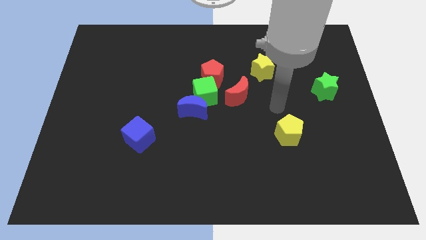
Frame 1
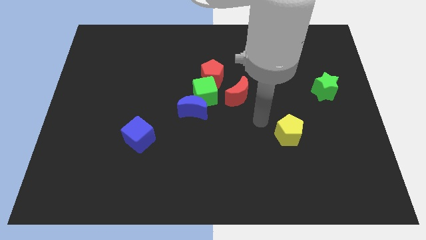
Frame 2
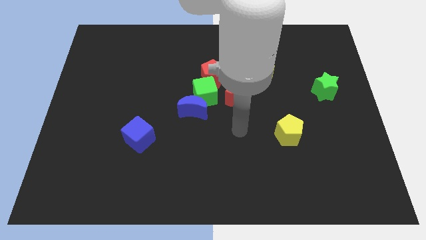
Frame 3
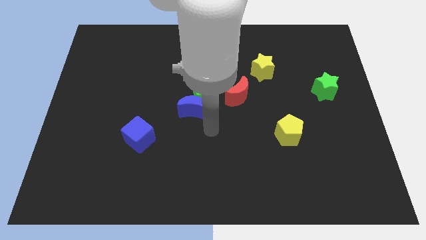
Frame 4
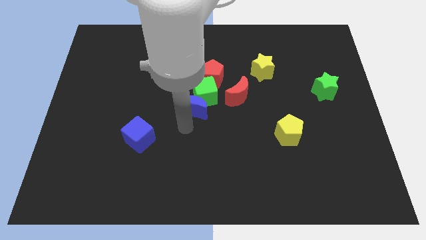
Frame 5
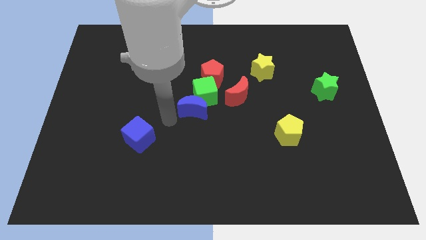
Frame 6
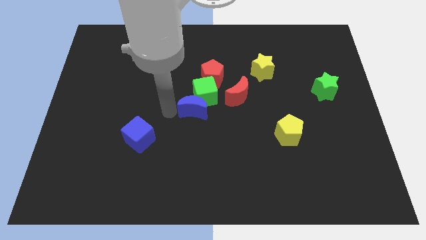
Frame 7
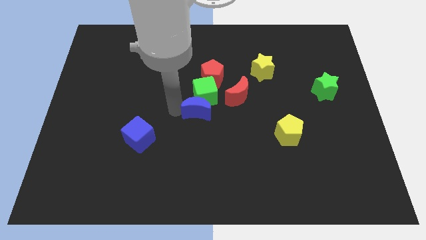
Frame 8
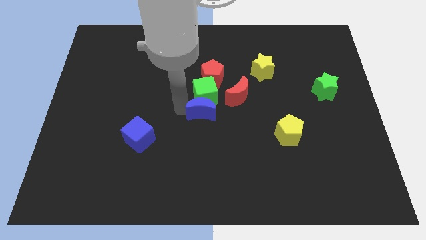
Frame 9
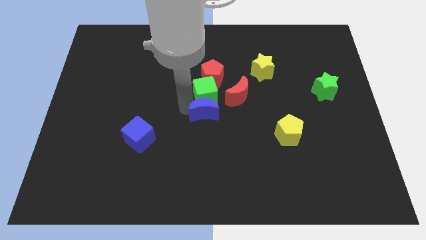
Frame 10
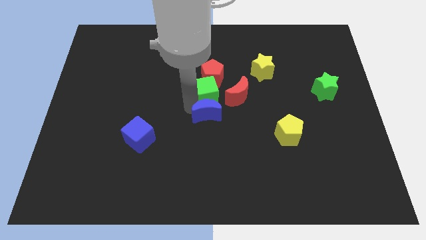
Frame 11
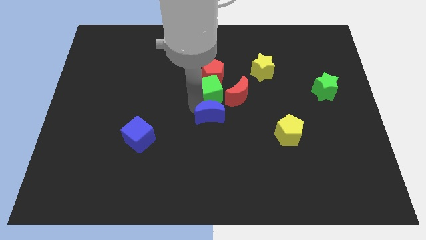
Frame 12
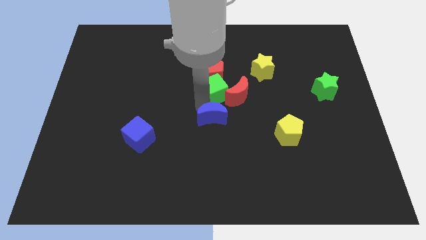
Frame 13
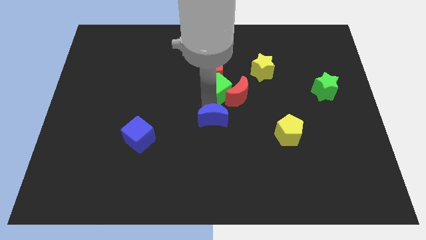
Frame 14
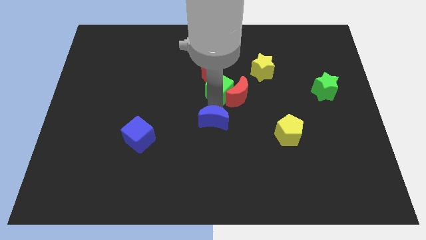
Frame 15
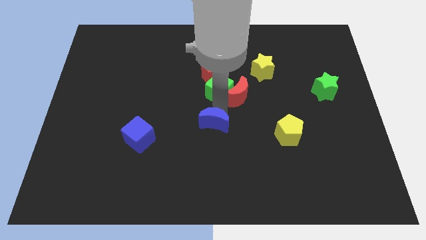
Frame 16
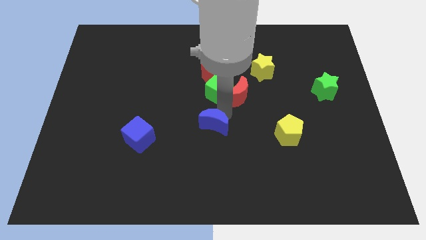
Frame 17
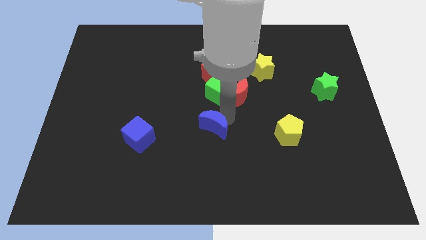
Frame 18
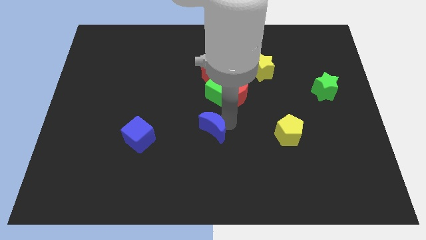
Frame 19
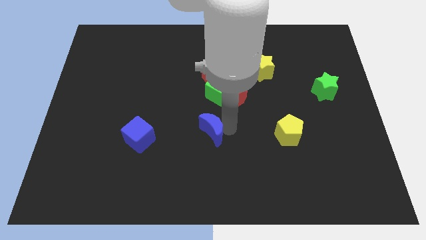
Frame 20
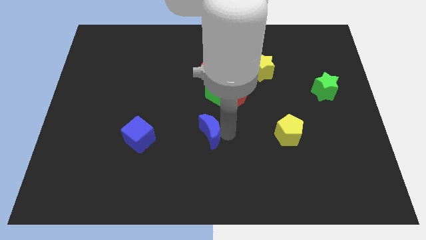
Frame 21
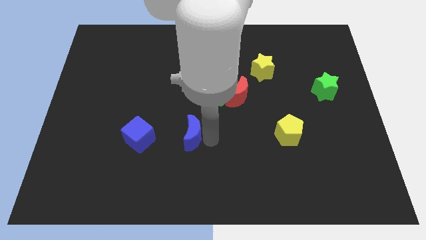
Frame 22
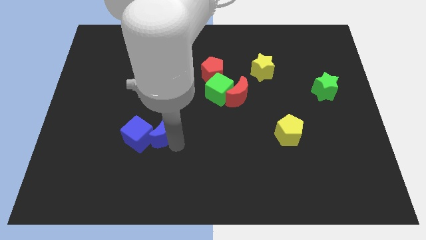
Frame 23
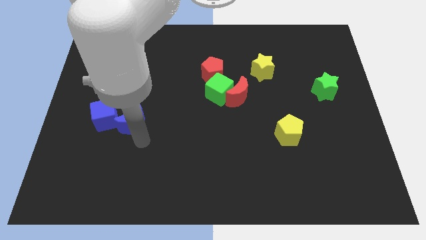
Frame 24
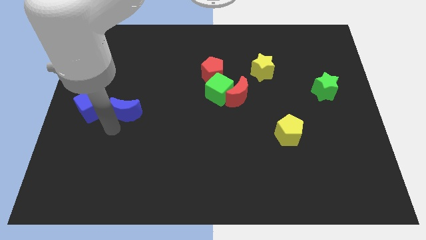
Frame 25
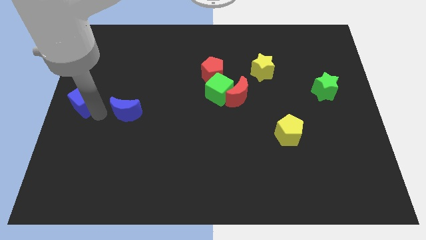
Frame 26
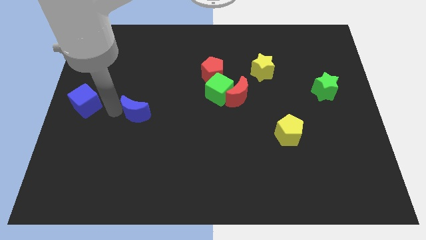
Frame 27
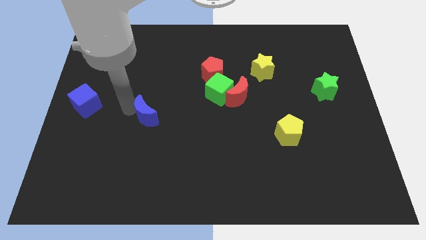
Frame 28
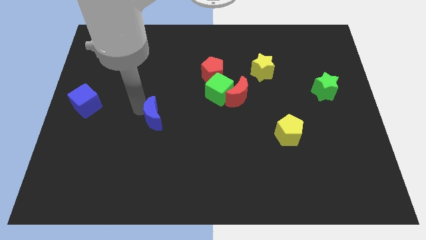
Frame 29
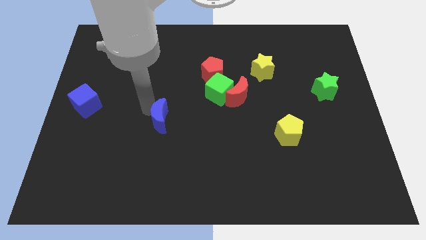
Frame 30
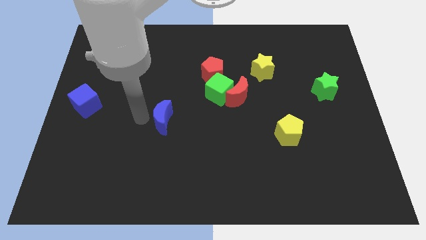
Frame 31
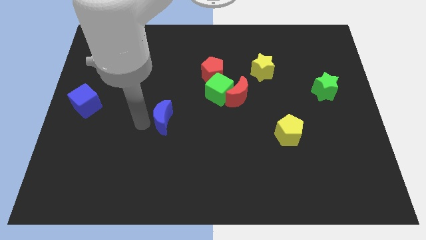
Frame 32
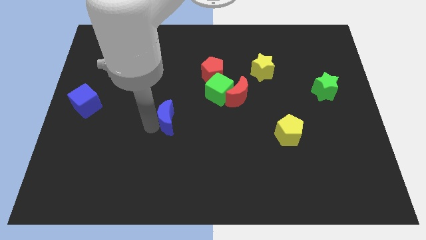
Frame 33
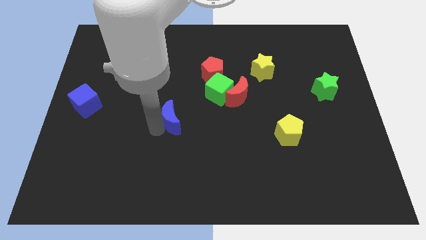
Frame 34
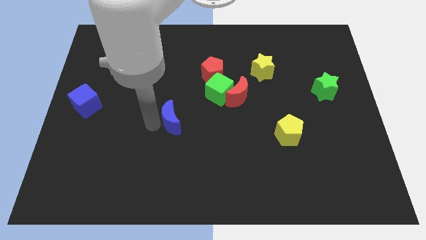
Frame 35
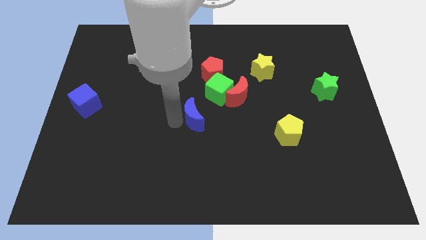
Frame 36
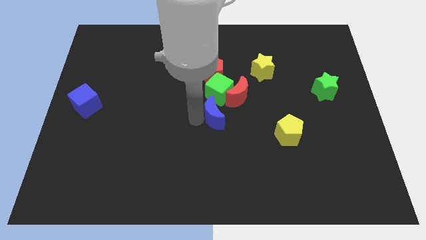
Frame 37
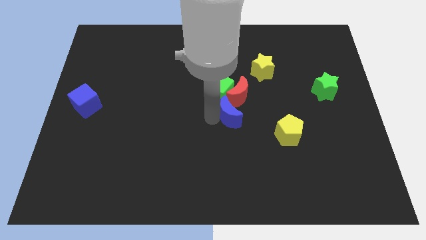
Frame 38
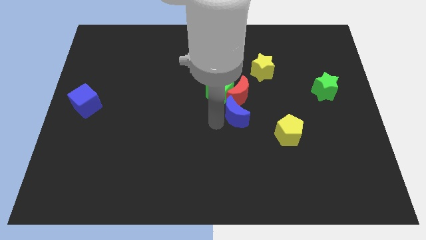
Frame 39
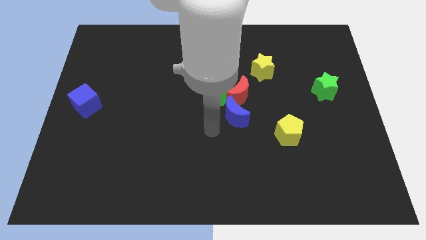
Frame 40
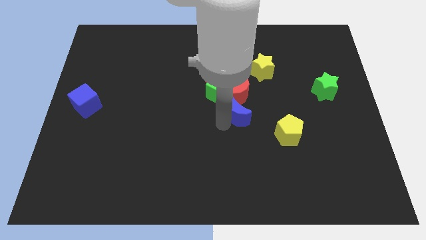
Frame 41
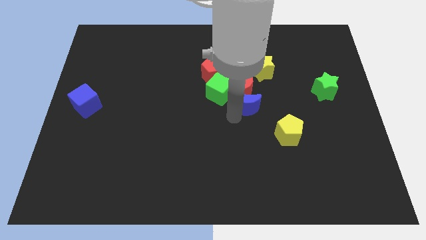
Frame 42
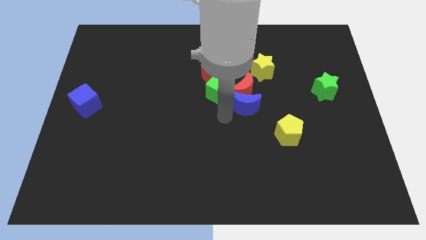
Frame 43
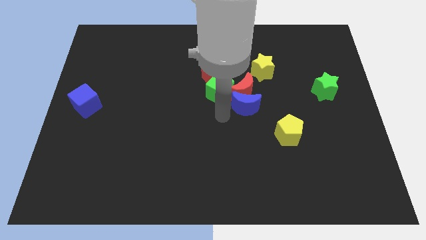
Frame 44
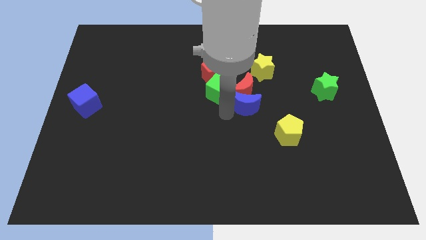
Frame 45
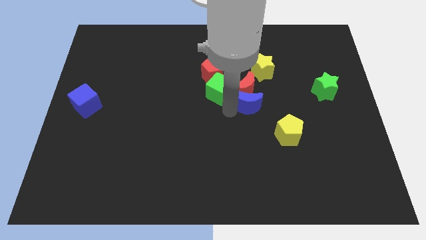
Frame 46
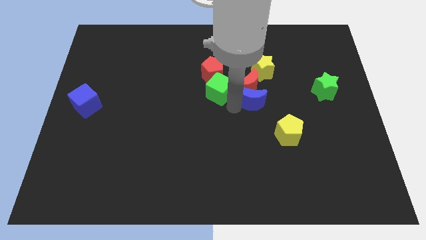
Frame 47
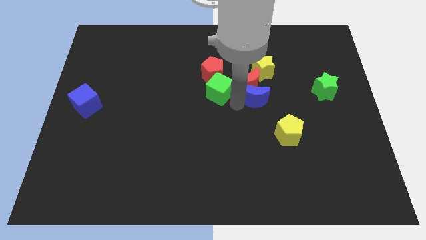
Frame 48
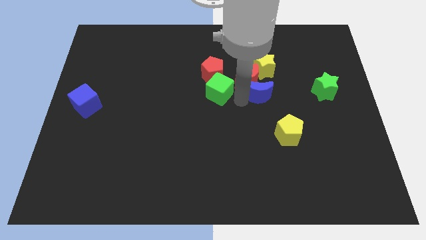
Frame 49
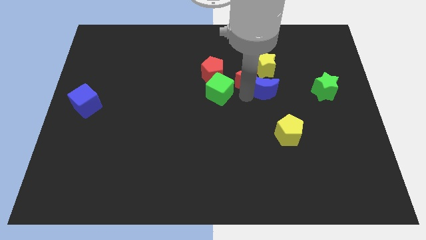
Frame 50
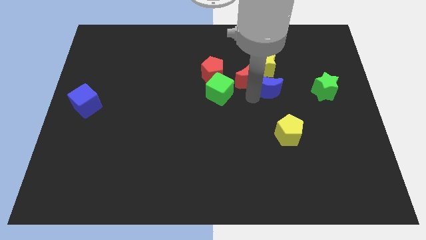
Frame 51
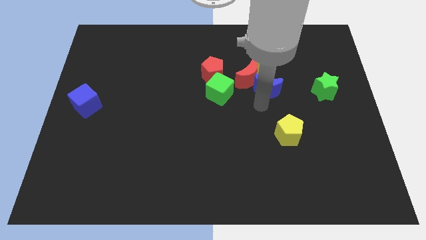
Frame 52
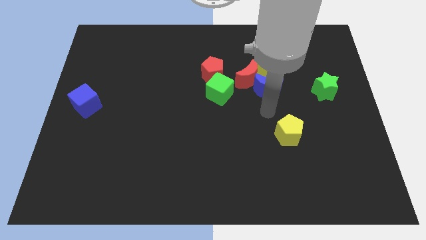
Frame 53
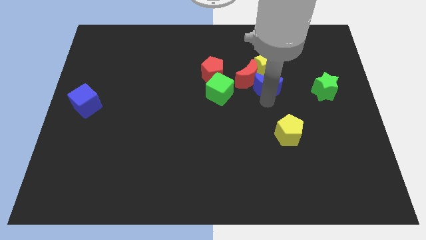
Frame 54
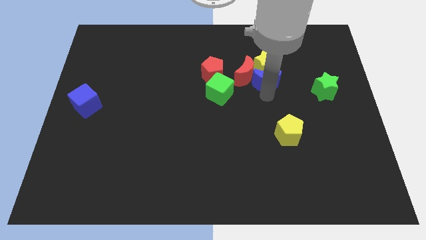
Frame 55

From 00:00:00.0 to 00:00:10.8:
move the blue moon close to the yellow star

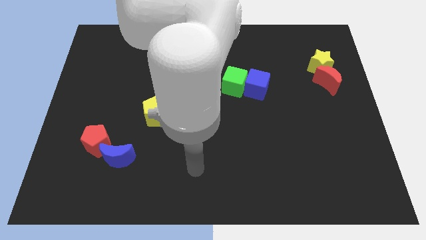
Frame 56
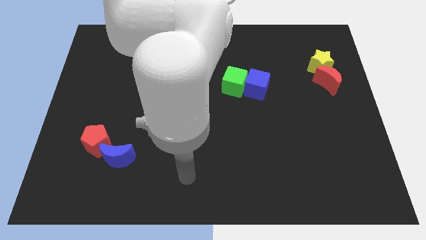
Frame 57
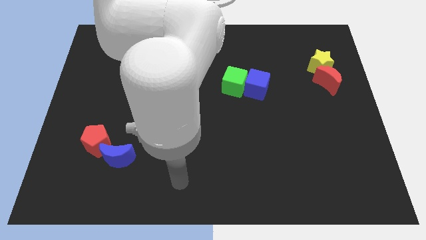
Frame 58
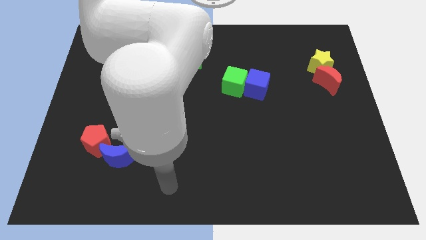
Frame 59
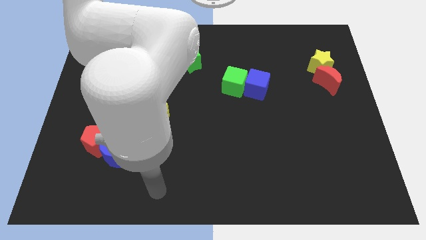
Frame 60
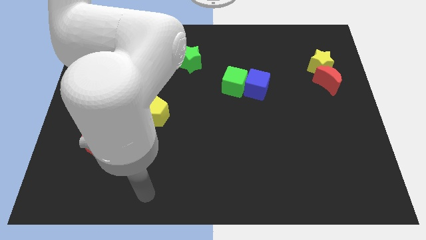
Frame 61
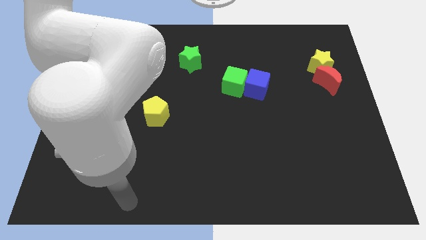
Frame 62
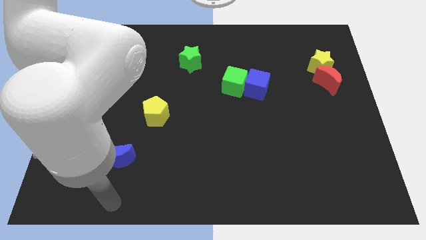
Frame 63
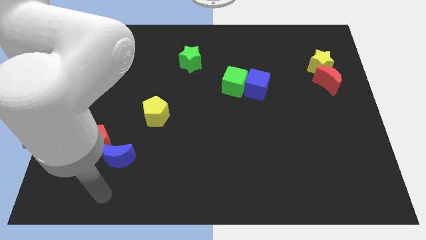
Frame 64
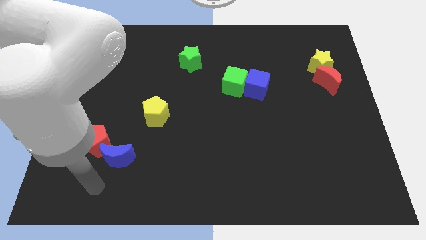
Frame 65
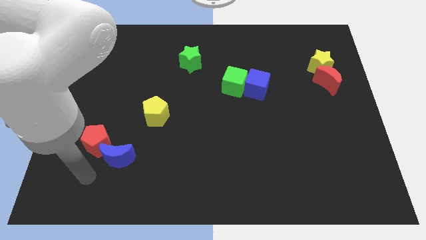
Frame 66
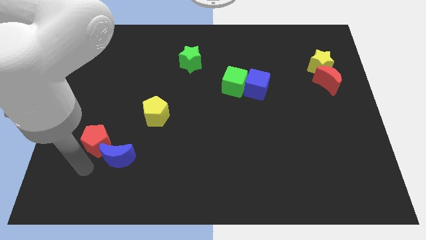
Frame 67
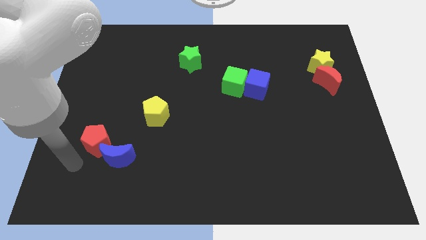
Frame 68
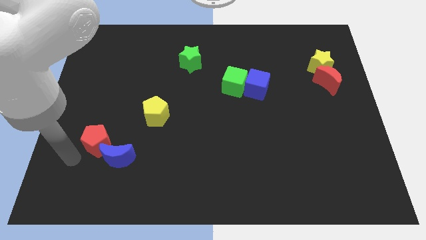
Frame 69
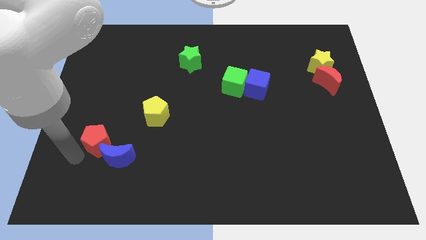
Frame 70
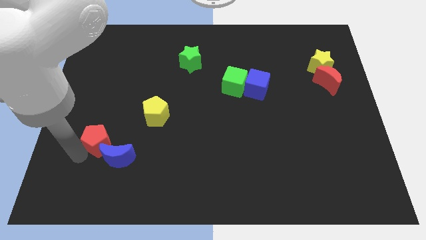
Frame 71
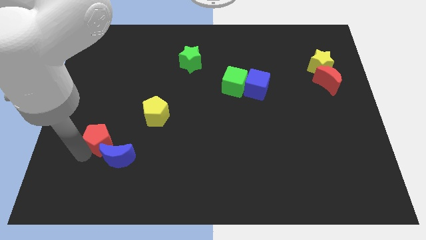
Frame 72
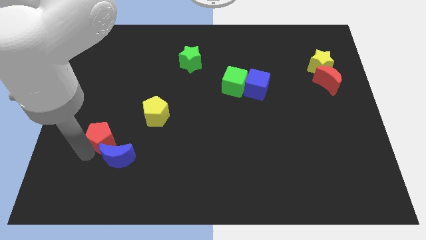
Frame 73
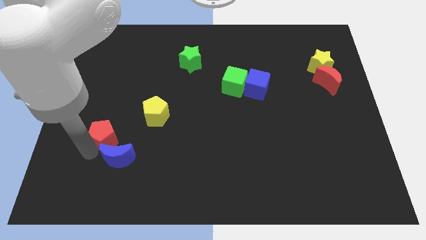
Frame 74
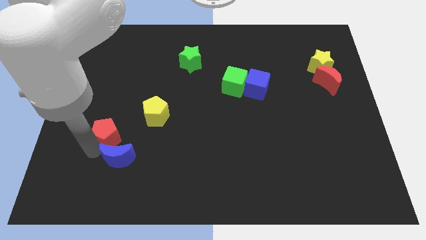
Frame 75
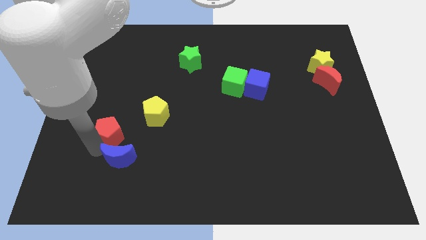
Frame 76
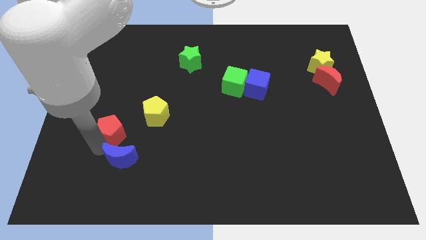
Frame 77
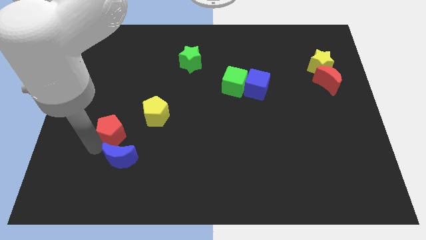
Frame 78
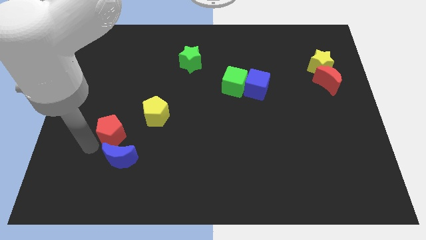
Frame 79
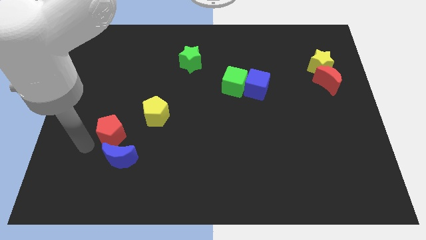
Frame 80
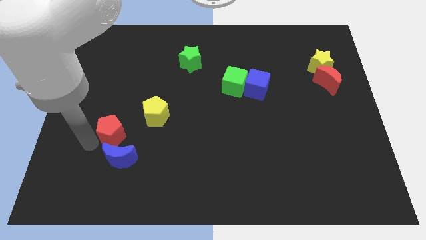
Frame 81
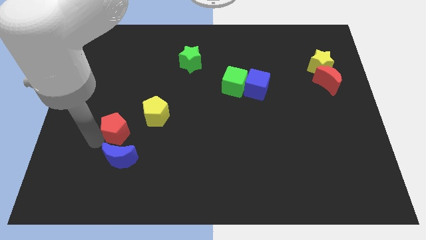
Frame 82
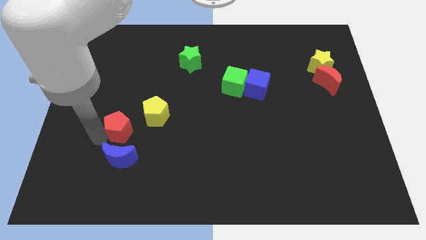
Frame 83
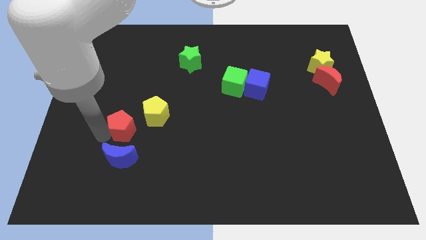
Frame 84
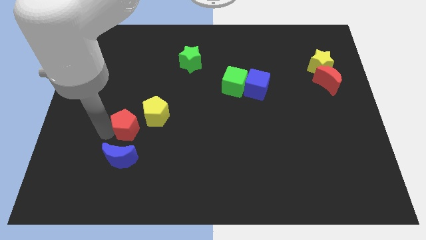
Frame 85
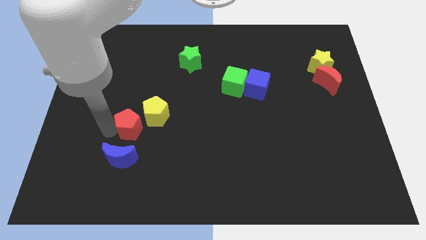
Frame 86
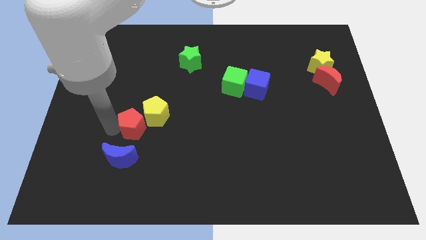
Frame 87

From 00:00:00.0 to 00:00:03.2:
push the red pentagon to the yellow pentagon
